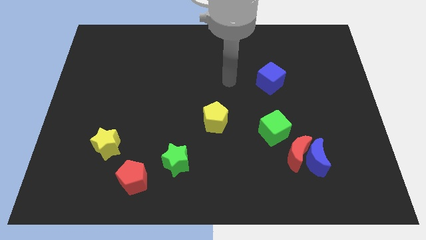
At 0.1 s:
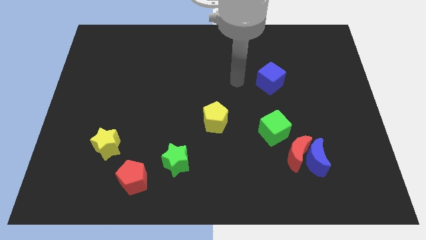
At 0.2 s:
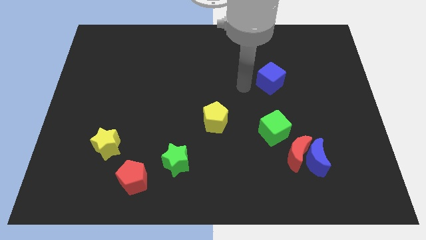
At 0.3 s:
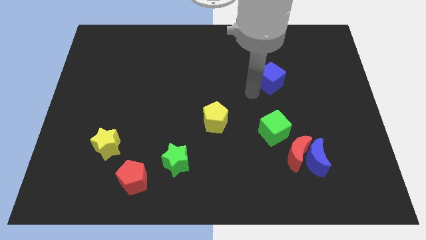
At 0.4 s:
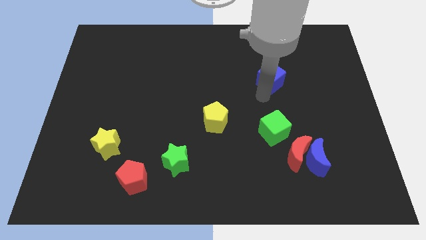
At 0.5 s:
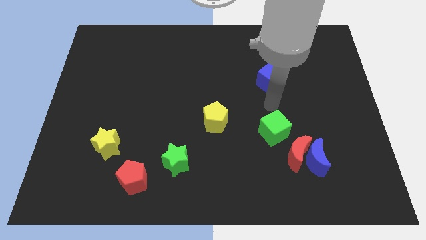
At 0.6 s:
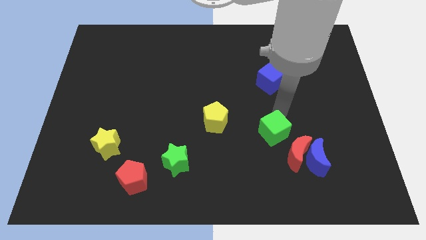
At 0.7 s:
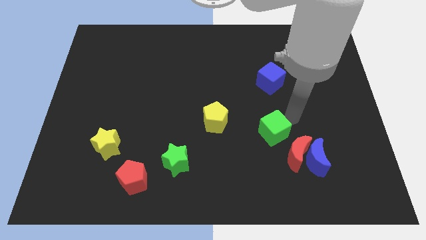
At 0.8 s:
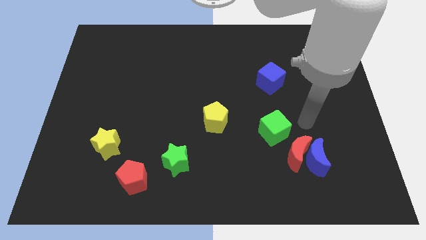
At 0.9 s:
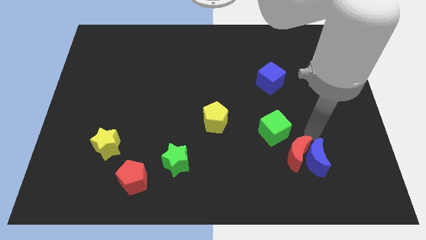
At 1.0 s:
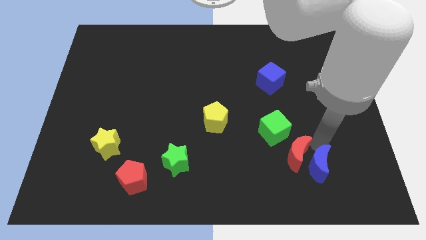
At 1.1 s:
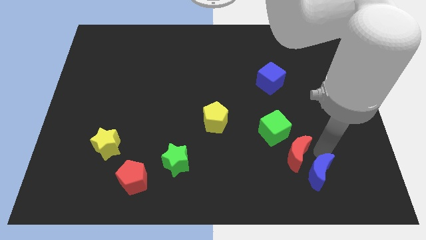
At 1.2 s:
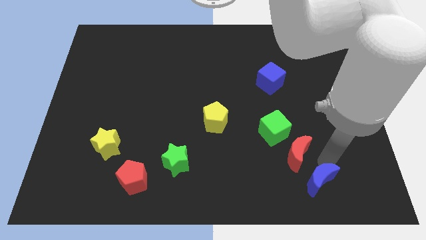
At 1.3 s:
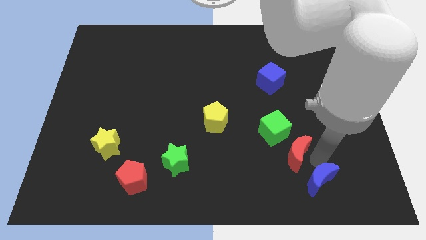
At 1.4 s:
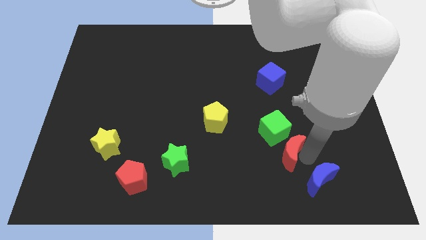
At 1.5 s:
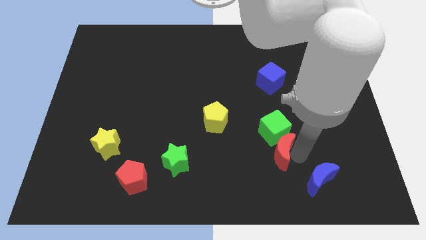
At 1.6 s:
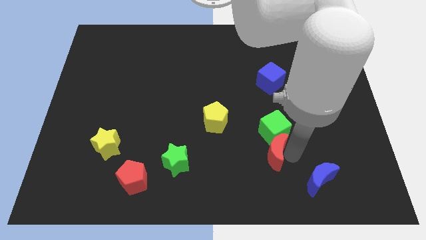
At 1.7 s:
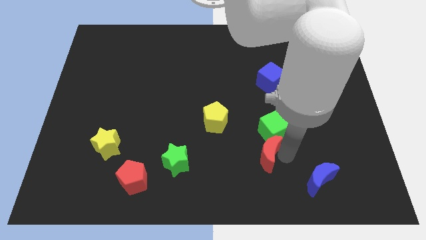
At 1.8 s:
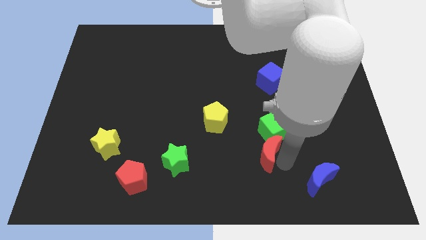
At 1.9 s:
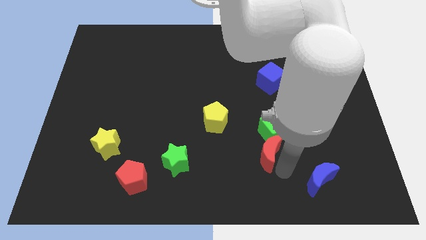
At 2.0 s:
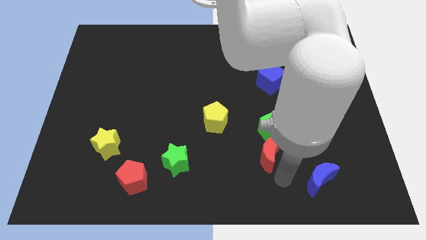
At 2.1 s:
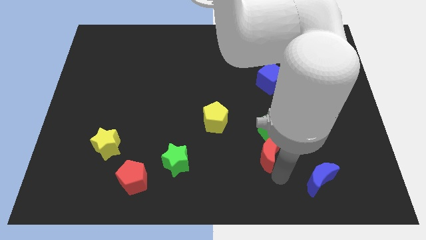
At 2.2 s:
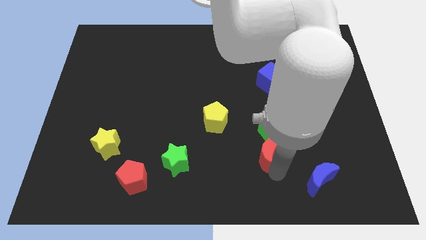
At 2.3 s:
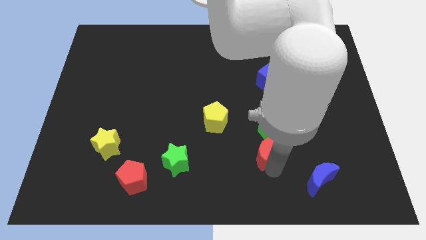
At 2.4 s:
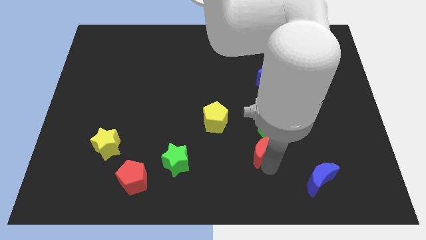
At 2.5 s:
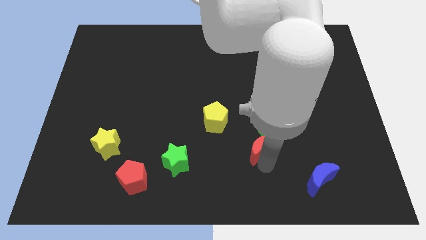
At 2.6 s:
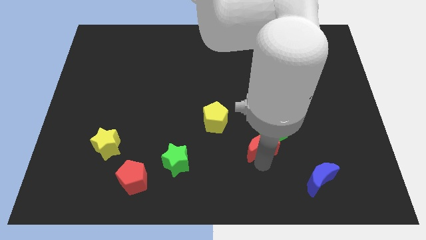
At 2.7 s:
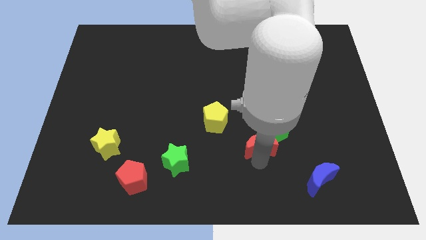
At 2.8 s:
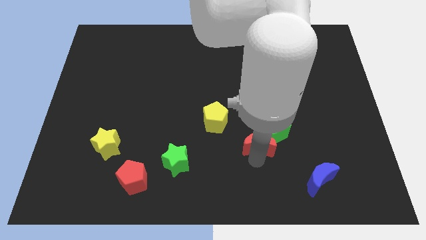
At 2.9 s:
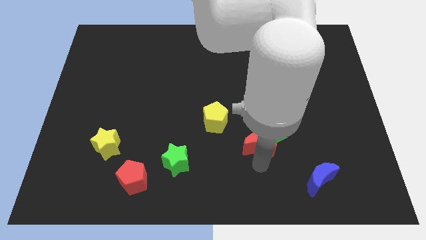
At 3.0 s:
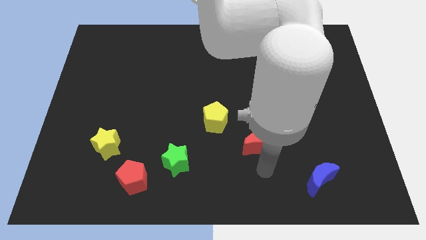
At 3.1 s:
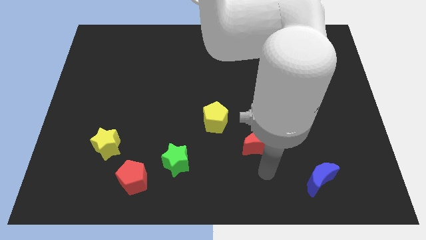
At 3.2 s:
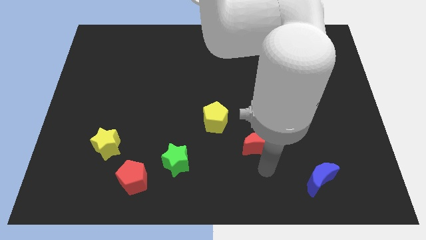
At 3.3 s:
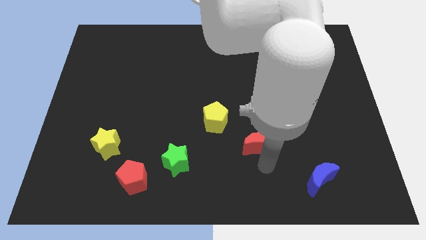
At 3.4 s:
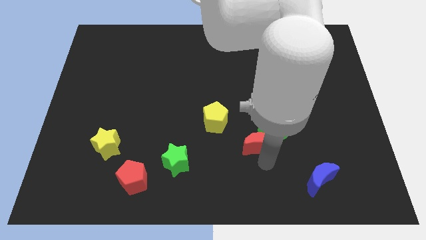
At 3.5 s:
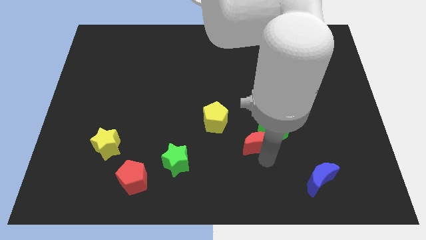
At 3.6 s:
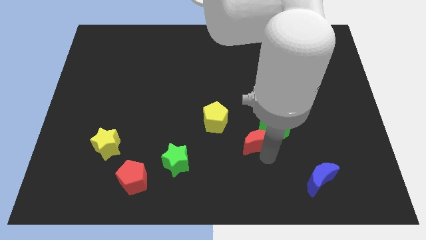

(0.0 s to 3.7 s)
slide the red moon up and then to the left somewhat

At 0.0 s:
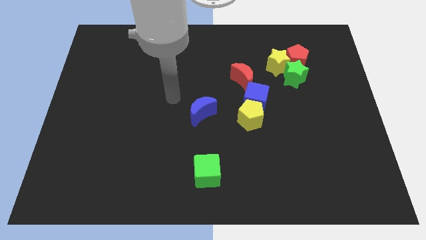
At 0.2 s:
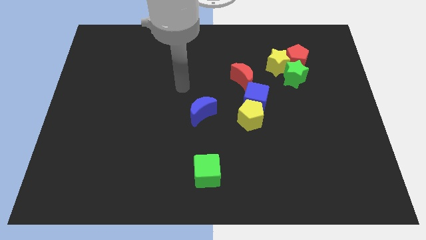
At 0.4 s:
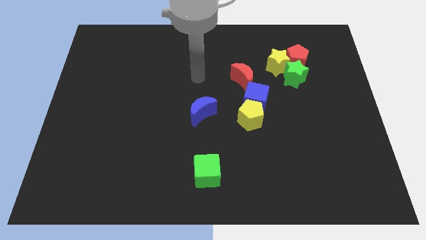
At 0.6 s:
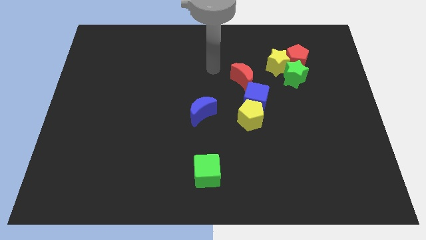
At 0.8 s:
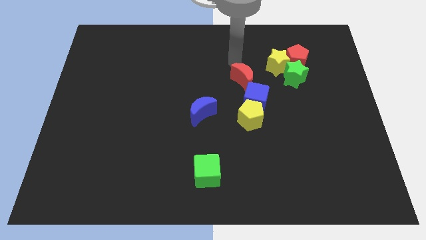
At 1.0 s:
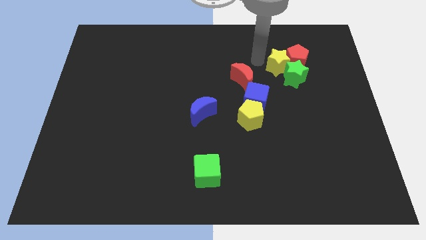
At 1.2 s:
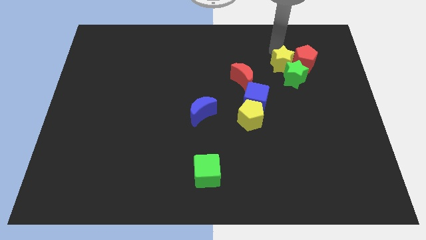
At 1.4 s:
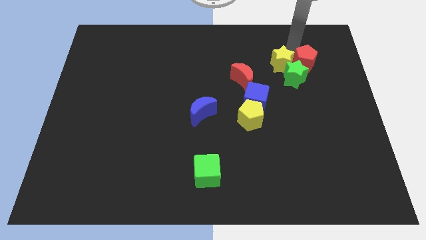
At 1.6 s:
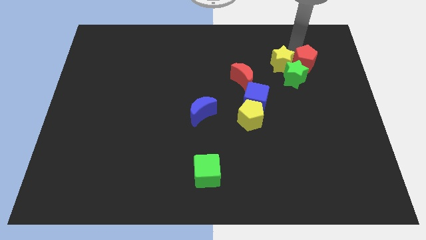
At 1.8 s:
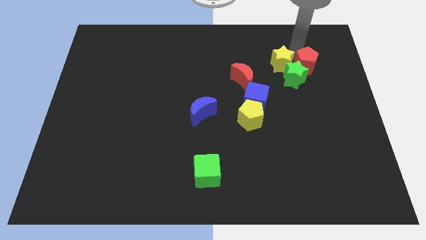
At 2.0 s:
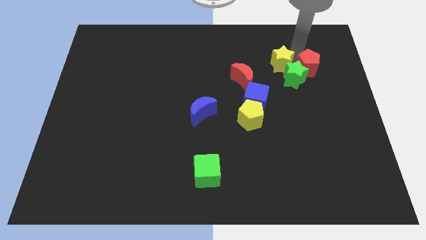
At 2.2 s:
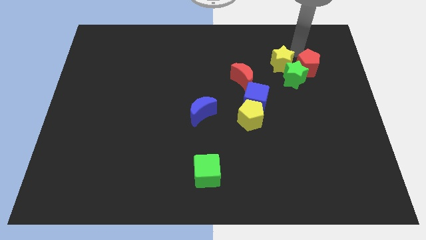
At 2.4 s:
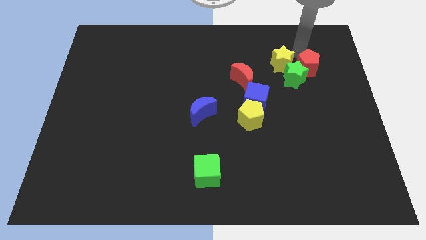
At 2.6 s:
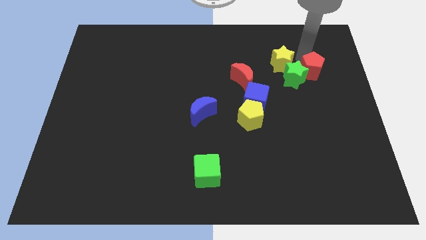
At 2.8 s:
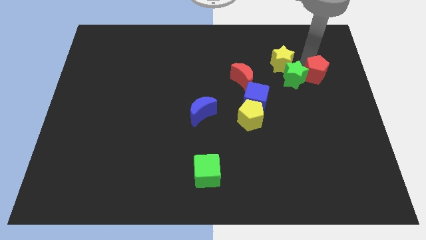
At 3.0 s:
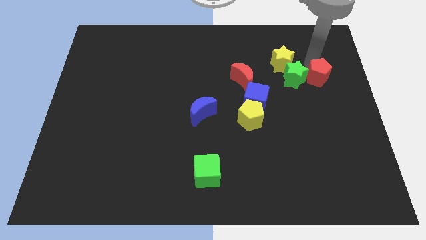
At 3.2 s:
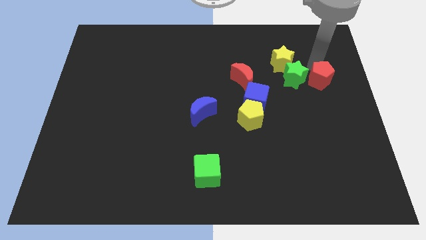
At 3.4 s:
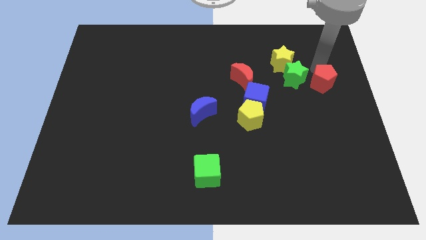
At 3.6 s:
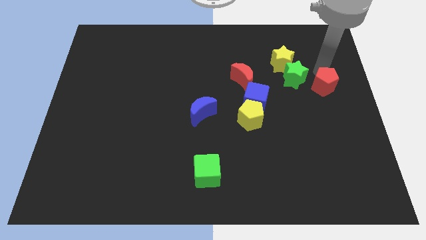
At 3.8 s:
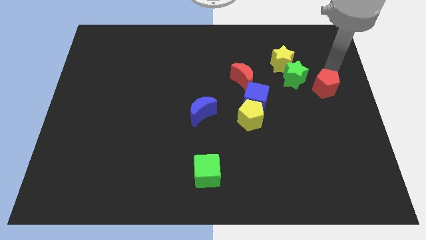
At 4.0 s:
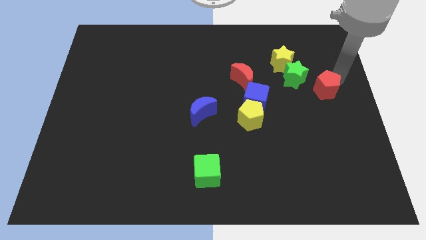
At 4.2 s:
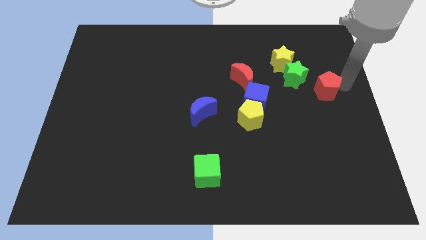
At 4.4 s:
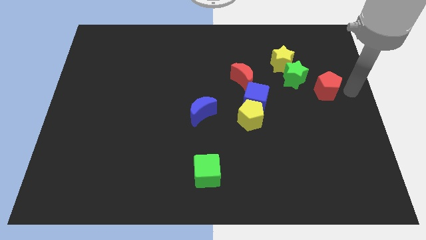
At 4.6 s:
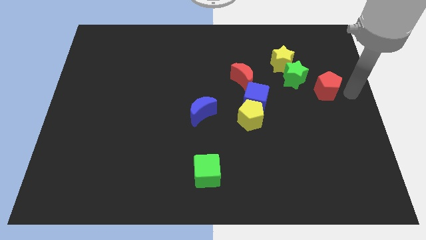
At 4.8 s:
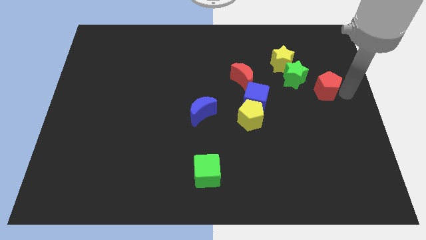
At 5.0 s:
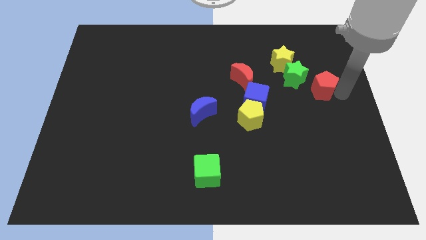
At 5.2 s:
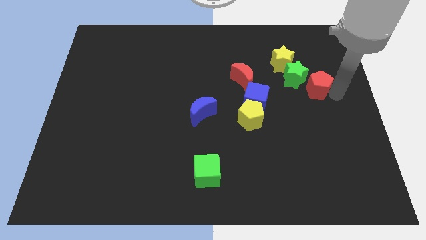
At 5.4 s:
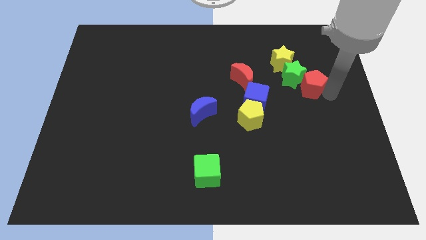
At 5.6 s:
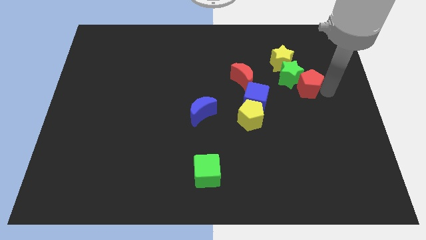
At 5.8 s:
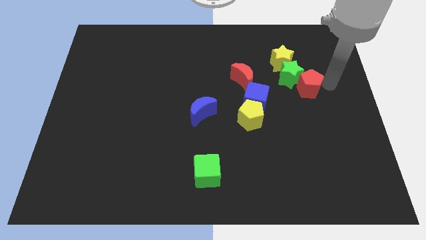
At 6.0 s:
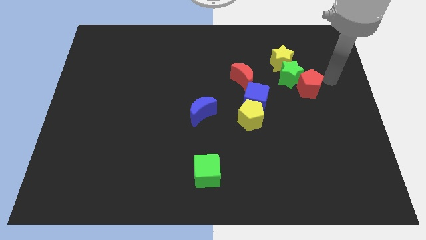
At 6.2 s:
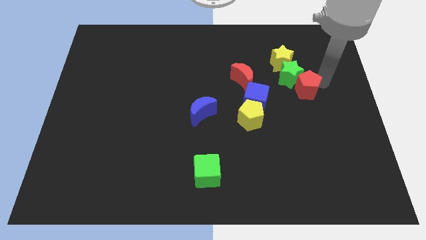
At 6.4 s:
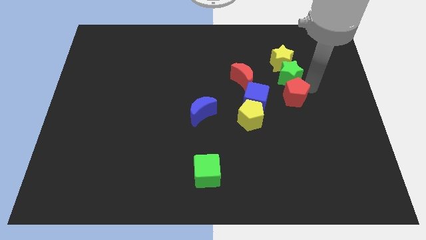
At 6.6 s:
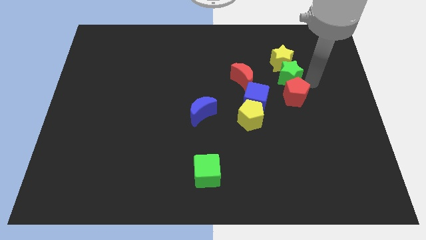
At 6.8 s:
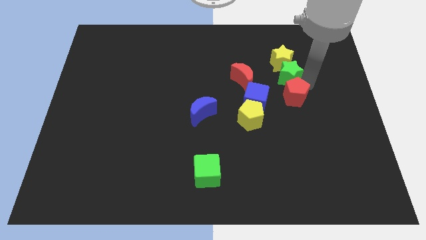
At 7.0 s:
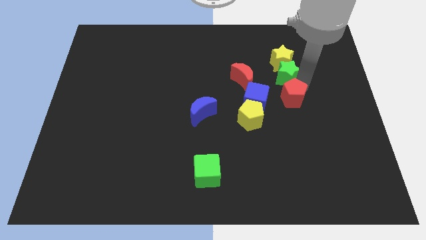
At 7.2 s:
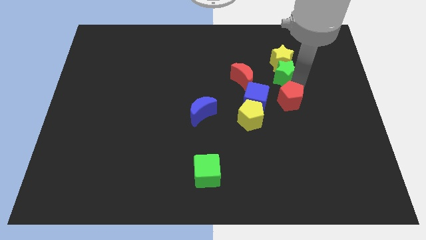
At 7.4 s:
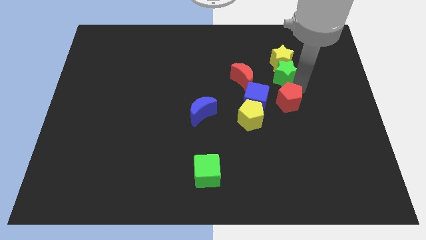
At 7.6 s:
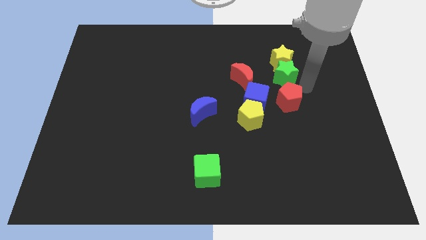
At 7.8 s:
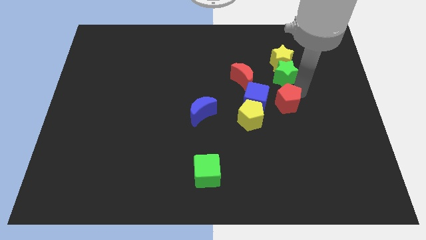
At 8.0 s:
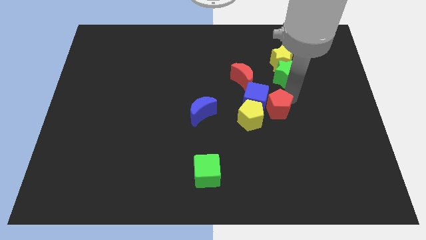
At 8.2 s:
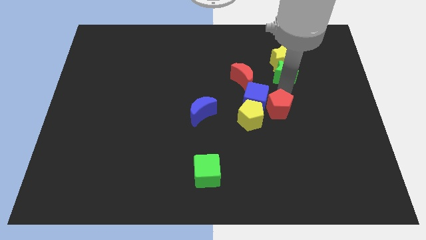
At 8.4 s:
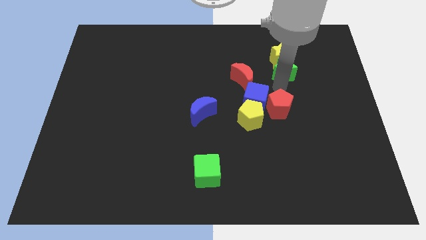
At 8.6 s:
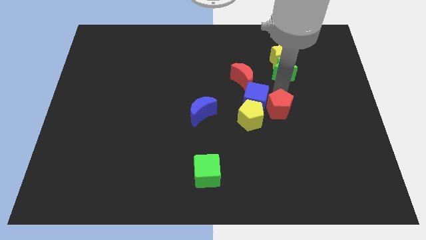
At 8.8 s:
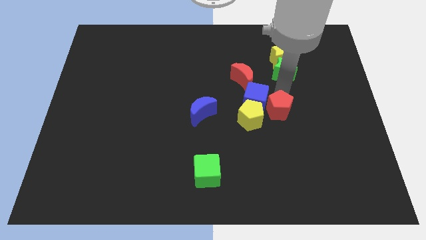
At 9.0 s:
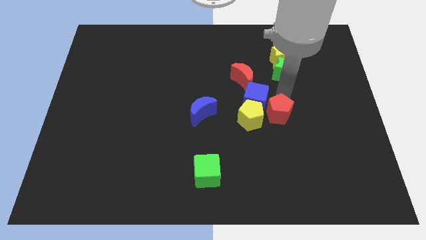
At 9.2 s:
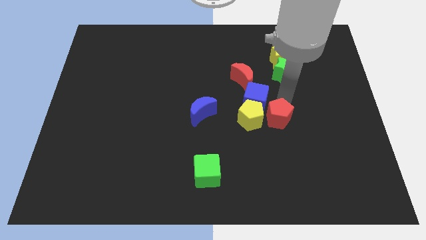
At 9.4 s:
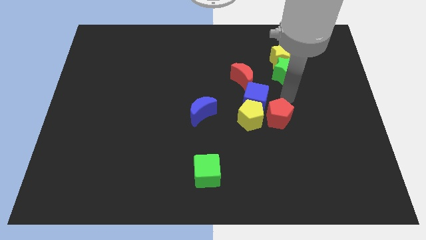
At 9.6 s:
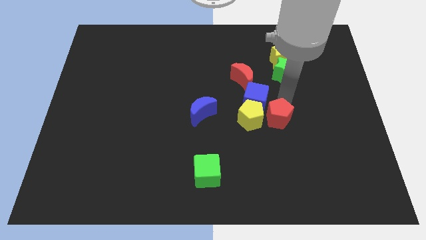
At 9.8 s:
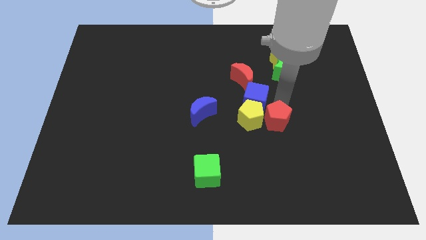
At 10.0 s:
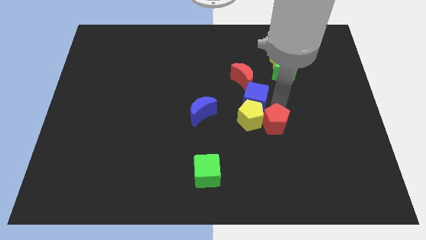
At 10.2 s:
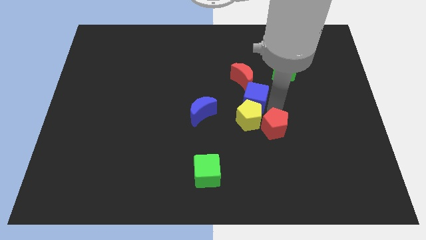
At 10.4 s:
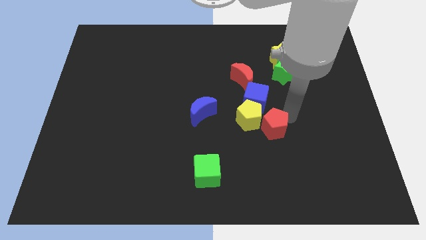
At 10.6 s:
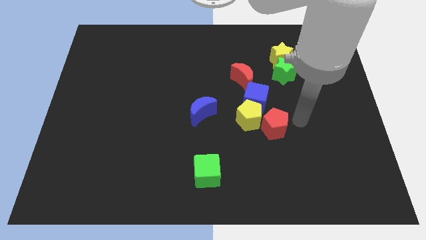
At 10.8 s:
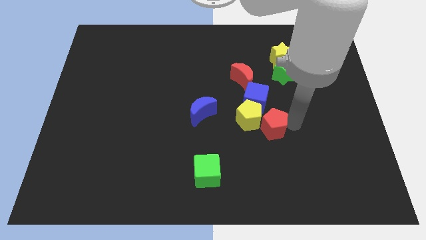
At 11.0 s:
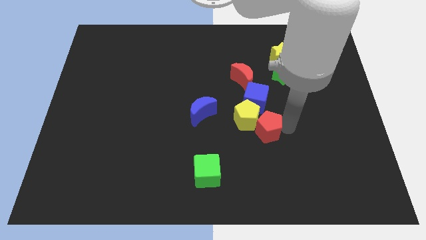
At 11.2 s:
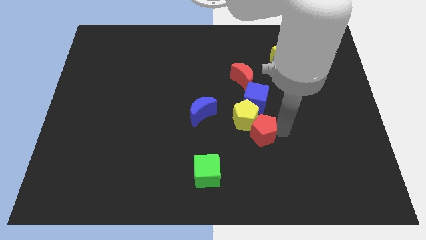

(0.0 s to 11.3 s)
move the red pentagon down and then to the left
